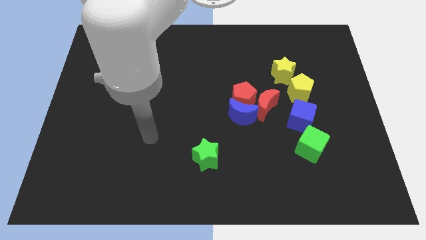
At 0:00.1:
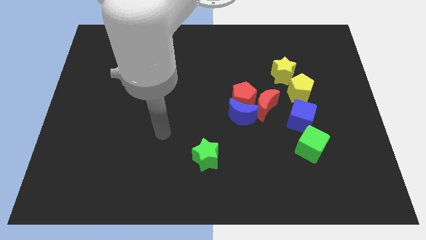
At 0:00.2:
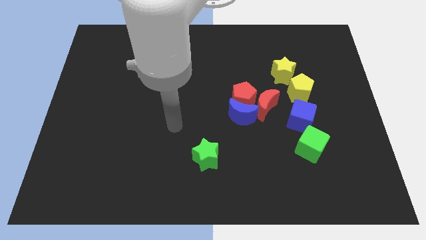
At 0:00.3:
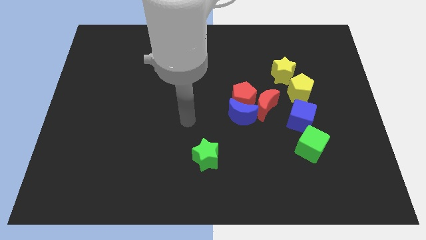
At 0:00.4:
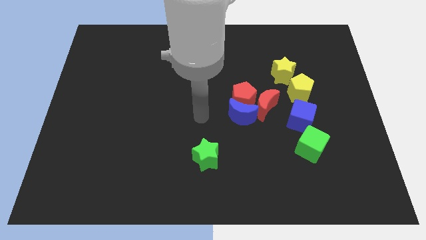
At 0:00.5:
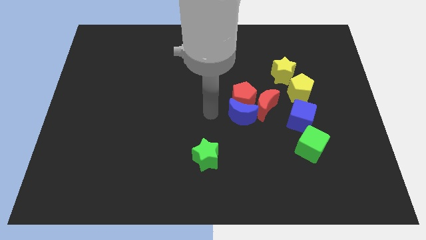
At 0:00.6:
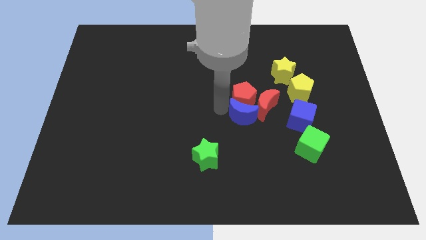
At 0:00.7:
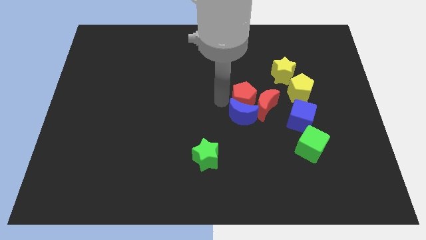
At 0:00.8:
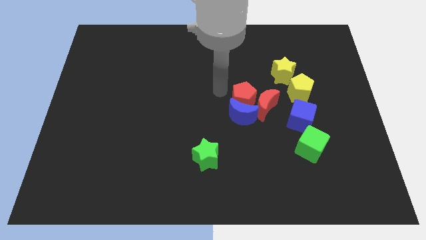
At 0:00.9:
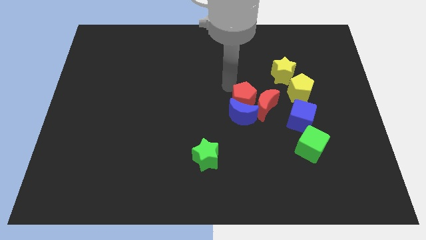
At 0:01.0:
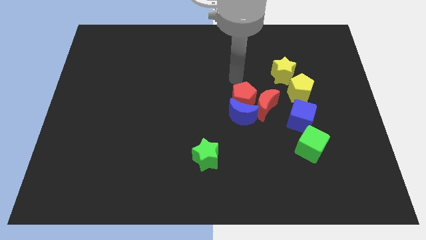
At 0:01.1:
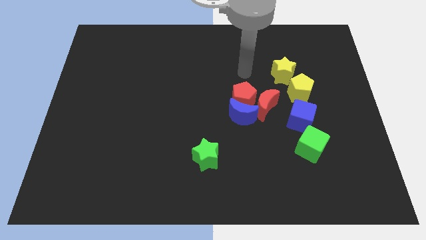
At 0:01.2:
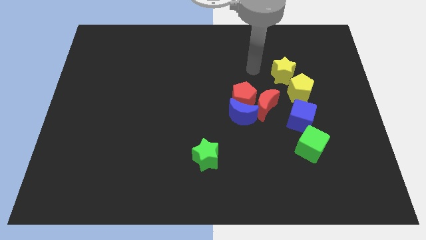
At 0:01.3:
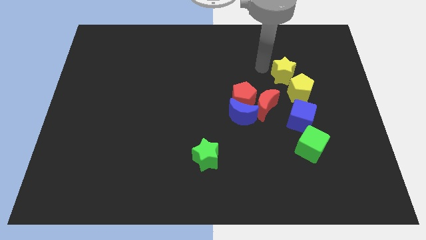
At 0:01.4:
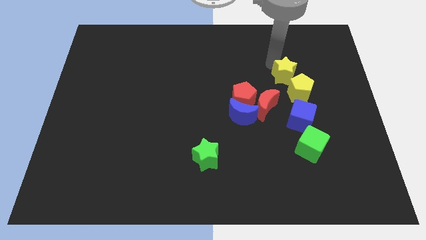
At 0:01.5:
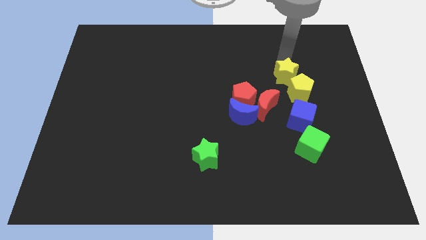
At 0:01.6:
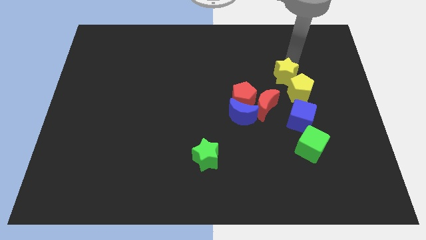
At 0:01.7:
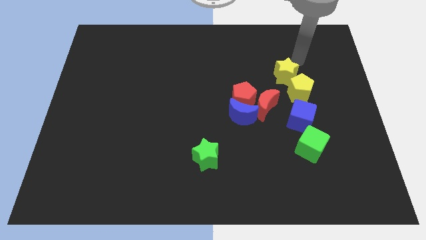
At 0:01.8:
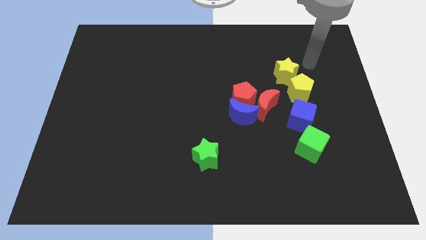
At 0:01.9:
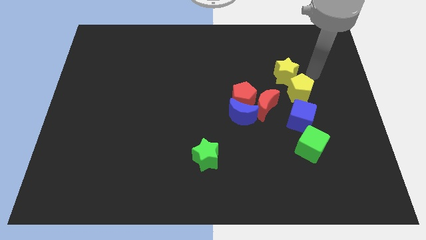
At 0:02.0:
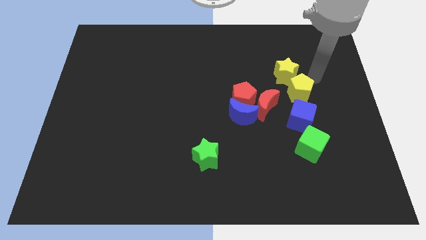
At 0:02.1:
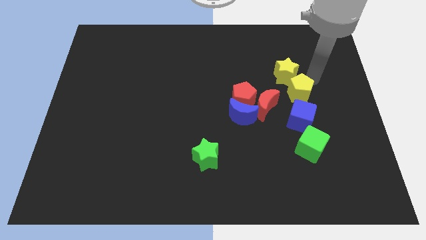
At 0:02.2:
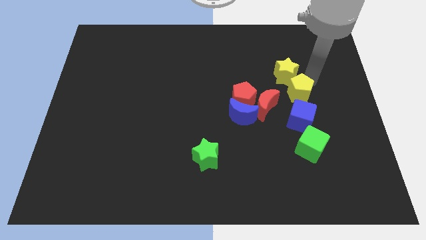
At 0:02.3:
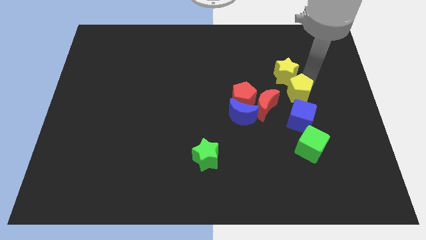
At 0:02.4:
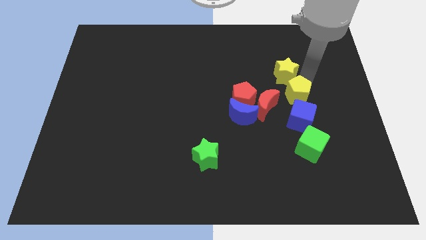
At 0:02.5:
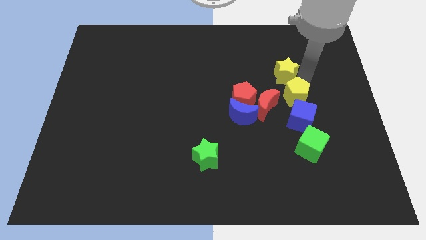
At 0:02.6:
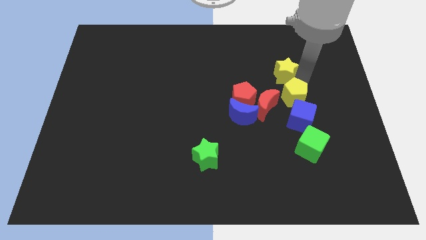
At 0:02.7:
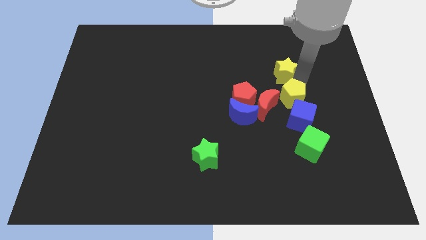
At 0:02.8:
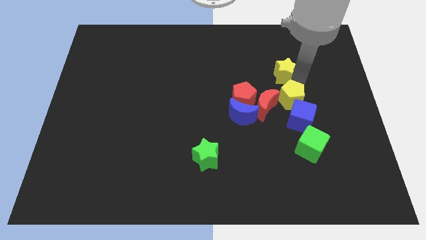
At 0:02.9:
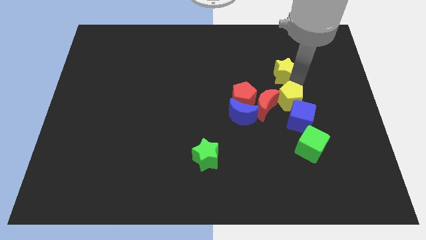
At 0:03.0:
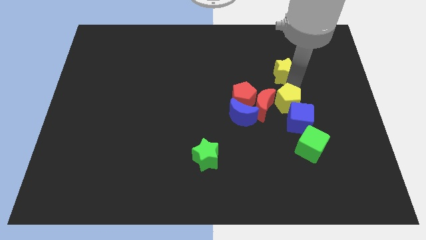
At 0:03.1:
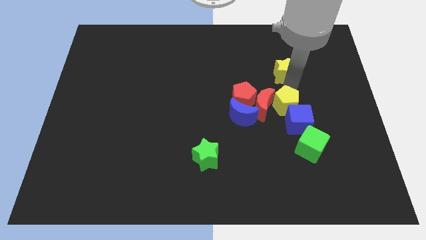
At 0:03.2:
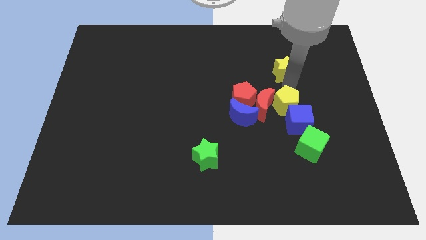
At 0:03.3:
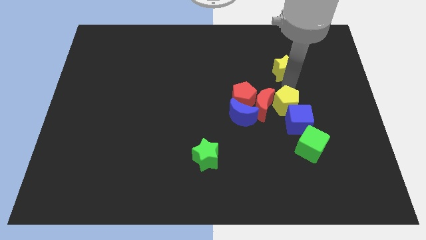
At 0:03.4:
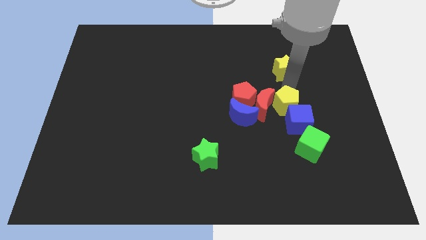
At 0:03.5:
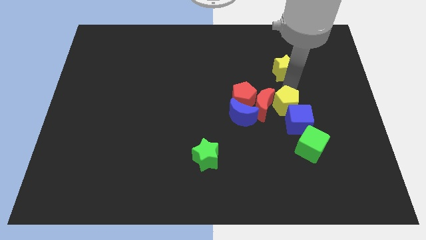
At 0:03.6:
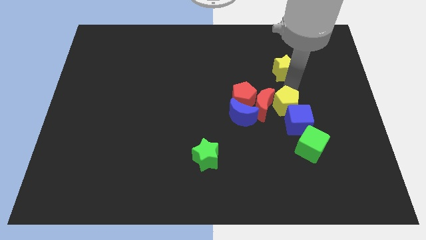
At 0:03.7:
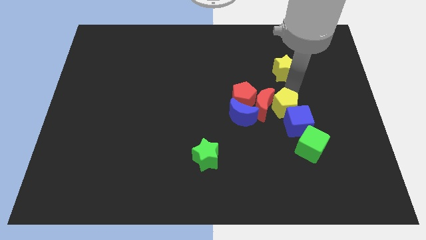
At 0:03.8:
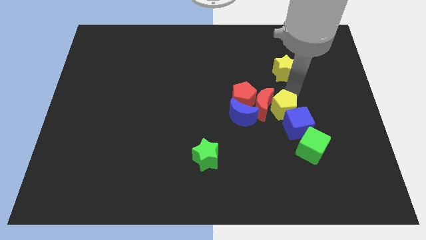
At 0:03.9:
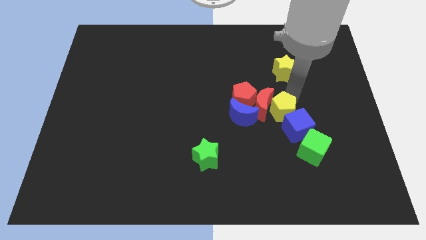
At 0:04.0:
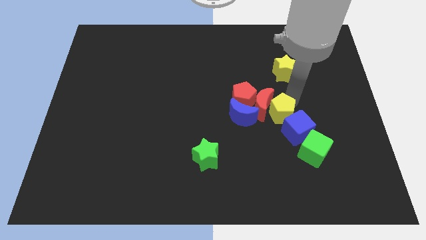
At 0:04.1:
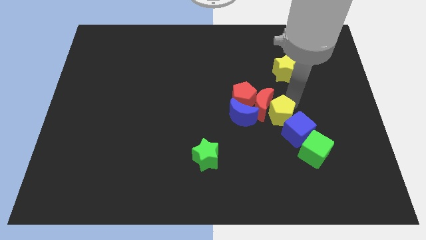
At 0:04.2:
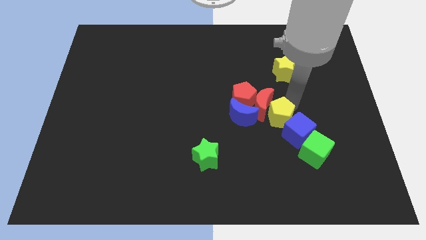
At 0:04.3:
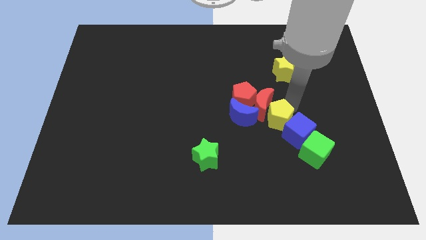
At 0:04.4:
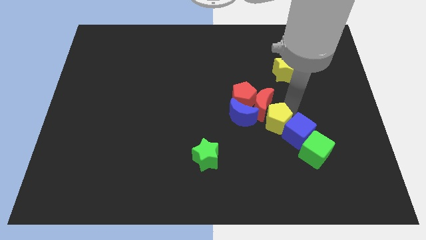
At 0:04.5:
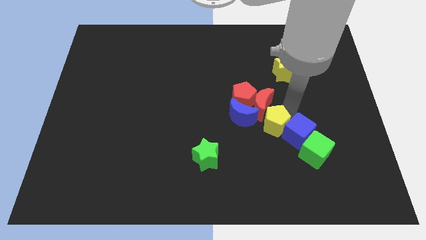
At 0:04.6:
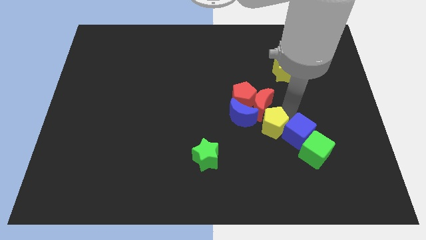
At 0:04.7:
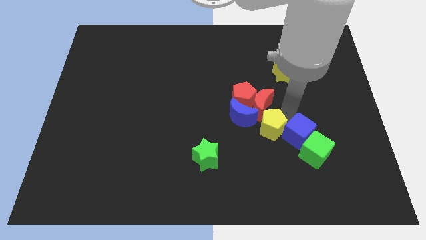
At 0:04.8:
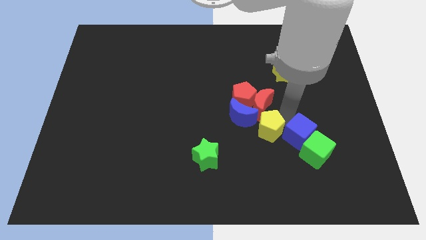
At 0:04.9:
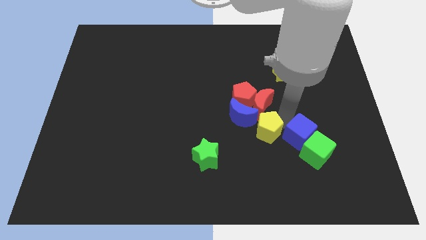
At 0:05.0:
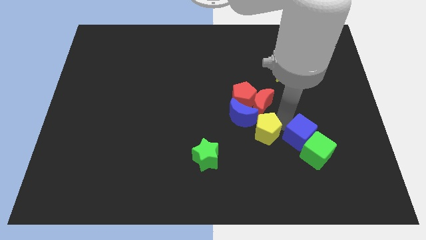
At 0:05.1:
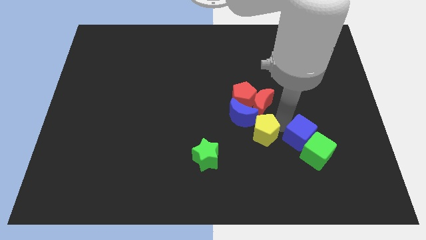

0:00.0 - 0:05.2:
push the yellow pentagon to the bottom of the blue moon

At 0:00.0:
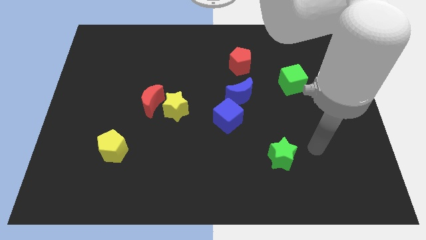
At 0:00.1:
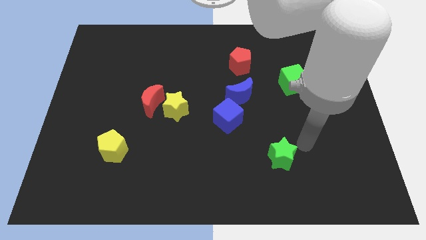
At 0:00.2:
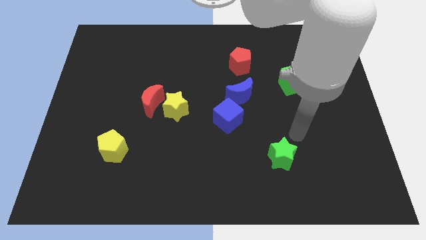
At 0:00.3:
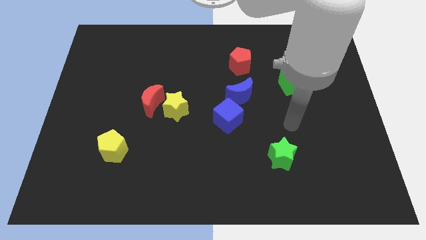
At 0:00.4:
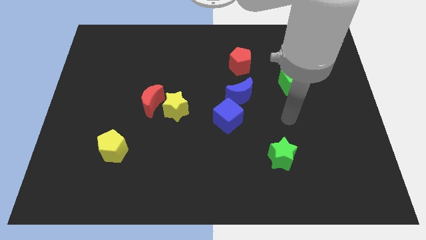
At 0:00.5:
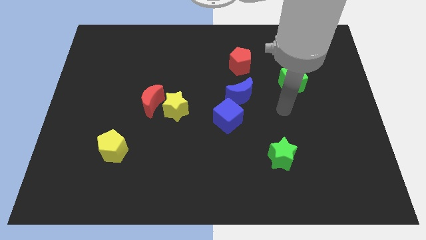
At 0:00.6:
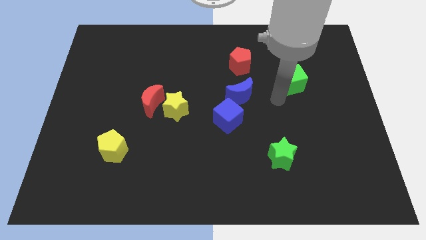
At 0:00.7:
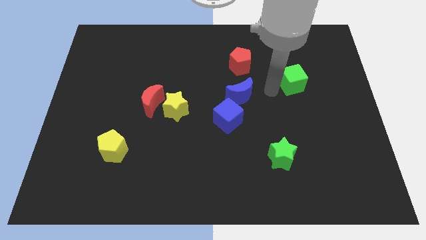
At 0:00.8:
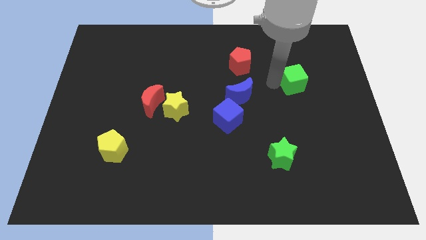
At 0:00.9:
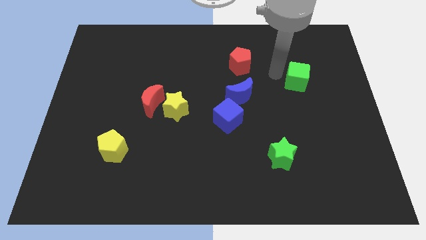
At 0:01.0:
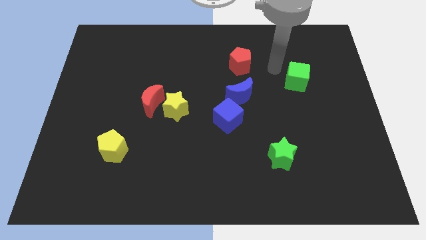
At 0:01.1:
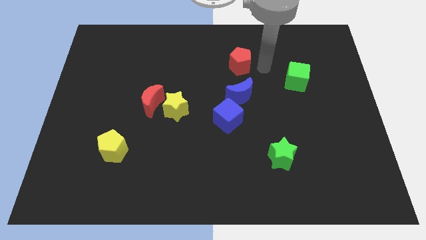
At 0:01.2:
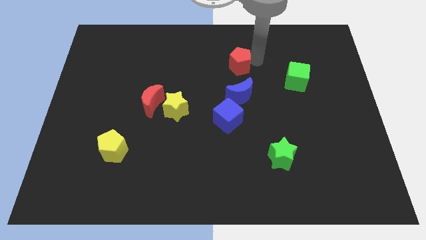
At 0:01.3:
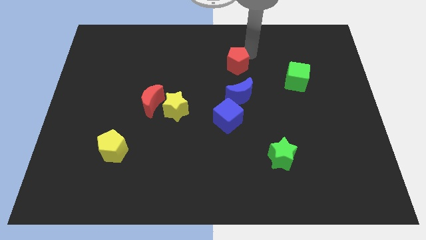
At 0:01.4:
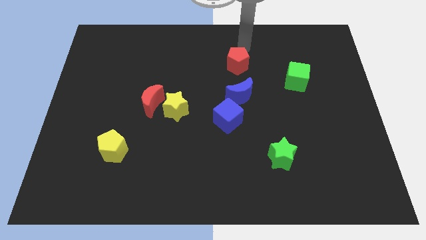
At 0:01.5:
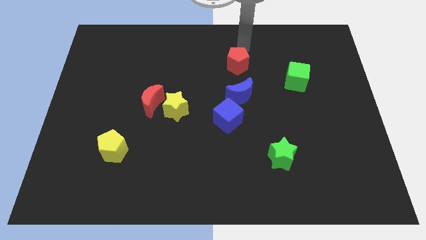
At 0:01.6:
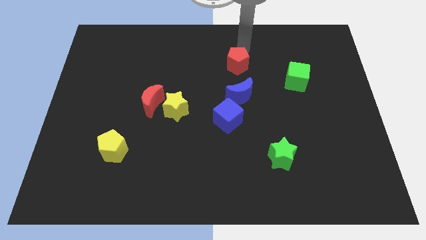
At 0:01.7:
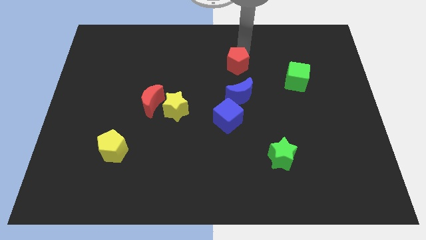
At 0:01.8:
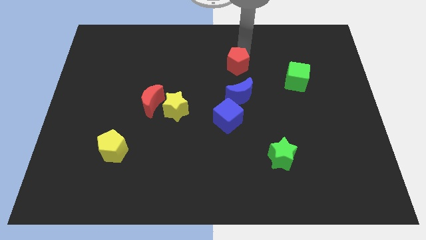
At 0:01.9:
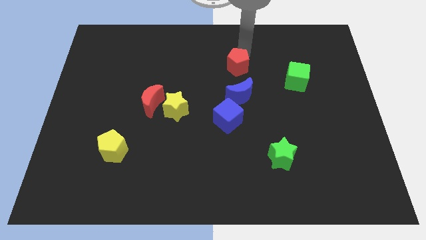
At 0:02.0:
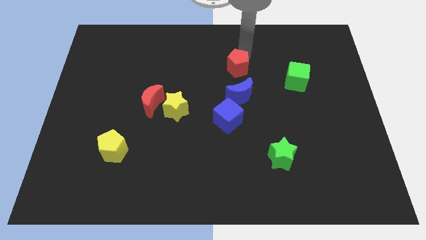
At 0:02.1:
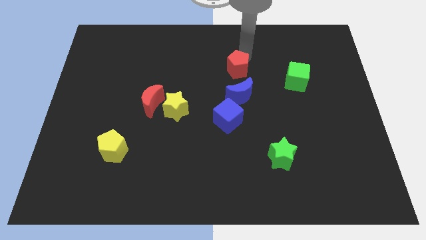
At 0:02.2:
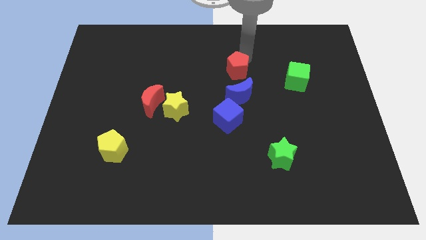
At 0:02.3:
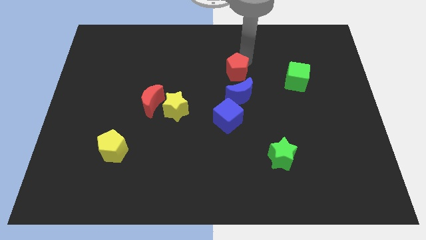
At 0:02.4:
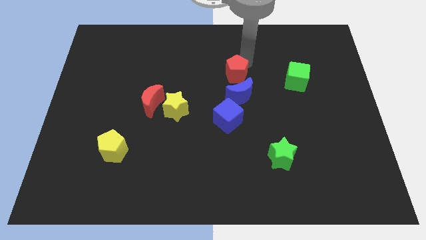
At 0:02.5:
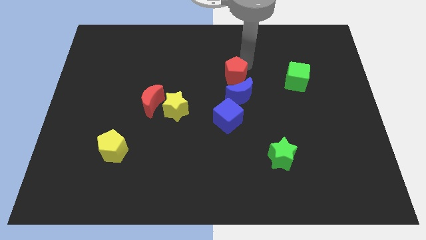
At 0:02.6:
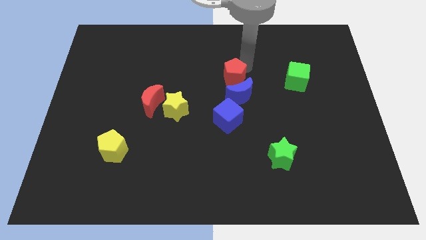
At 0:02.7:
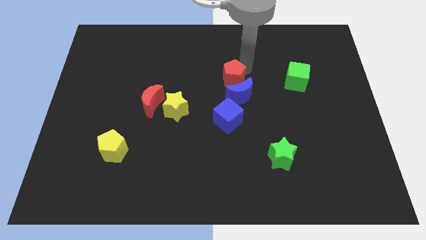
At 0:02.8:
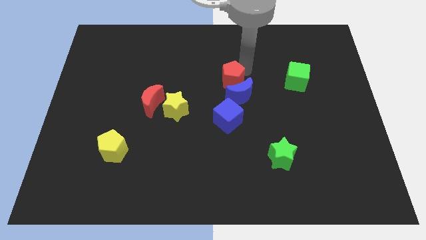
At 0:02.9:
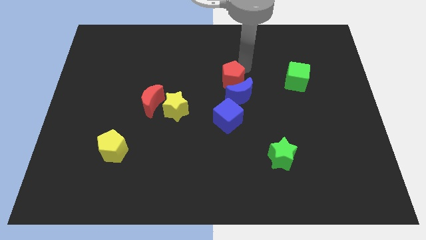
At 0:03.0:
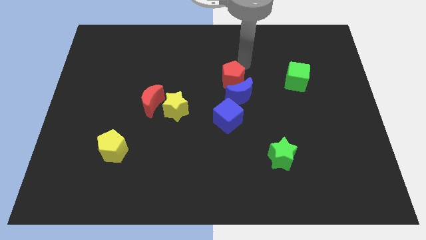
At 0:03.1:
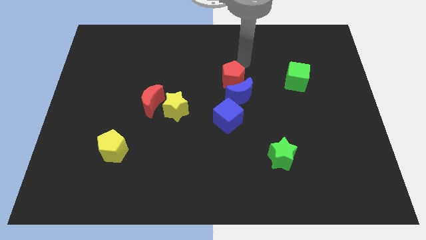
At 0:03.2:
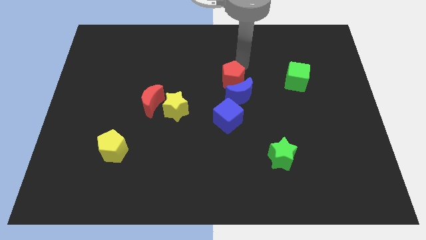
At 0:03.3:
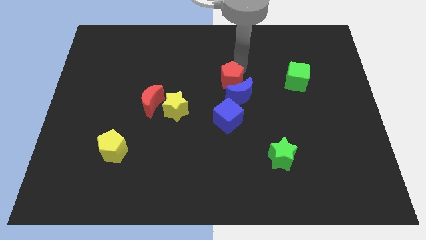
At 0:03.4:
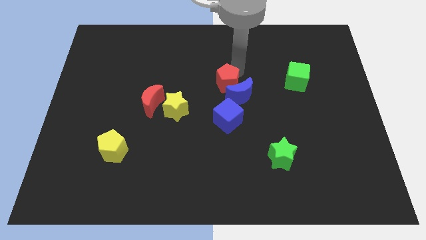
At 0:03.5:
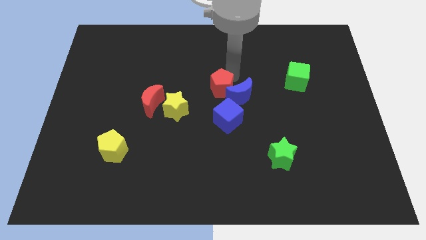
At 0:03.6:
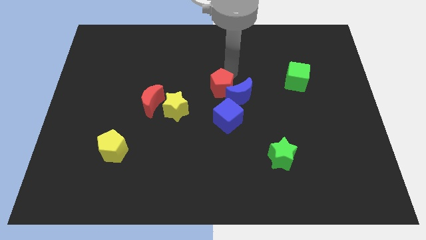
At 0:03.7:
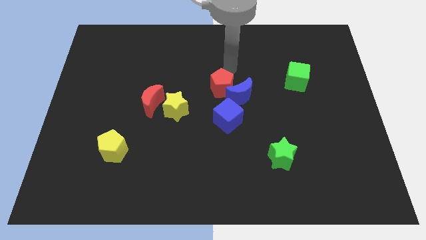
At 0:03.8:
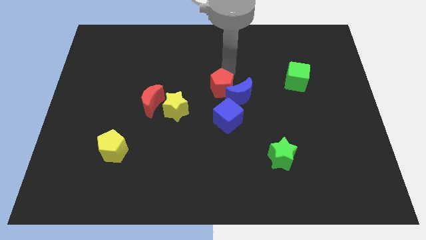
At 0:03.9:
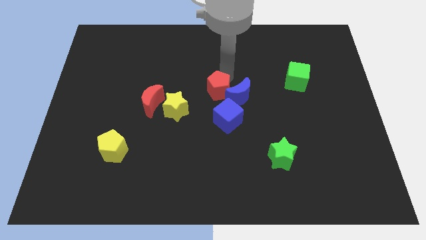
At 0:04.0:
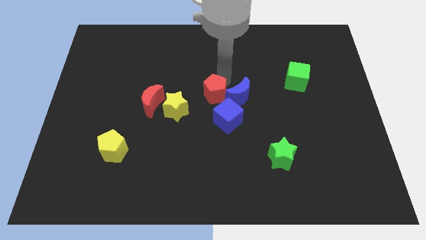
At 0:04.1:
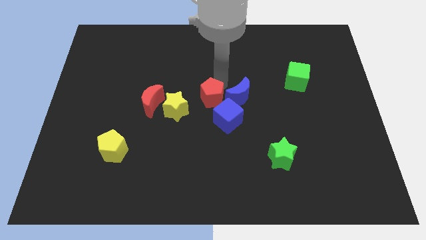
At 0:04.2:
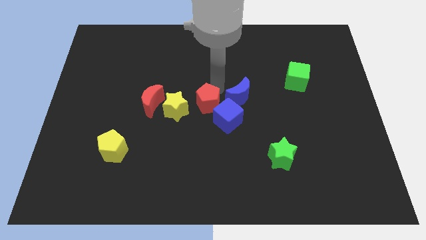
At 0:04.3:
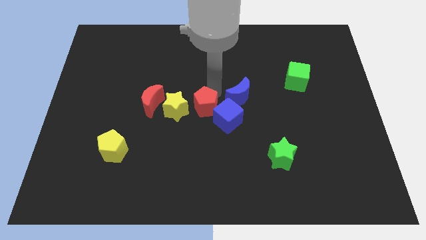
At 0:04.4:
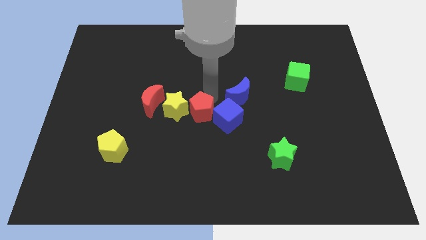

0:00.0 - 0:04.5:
slide the red pentagon to the bottom right side of the yellow star
